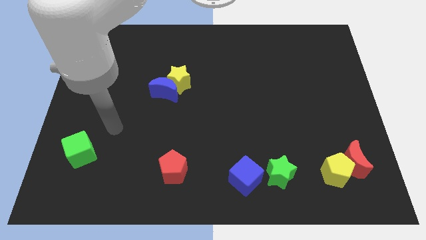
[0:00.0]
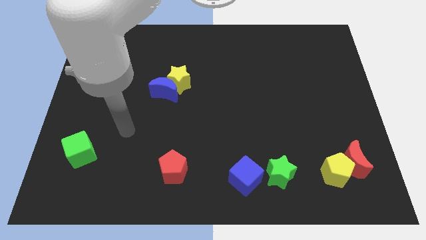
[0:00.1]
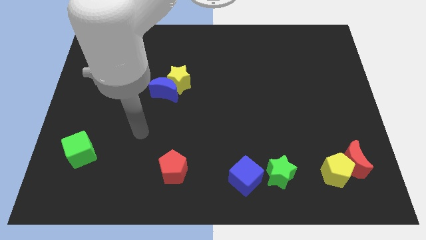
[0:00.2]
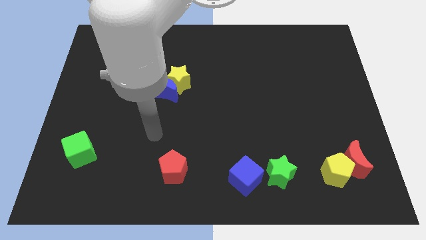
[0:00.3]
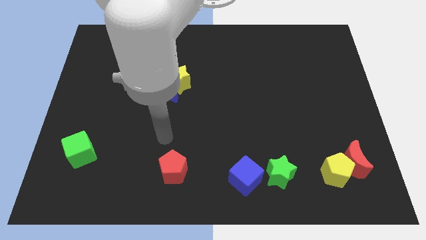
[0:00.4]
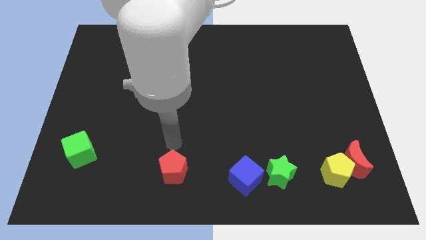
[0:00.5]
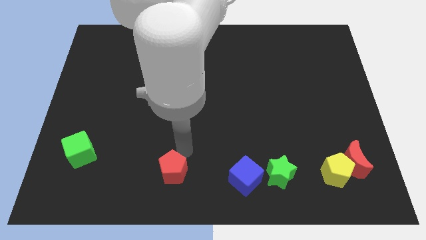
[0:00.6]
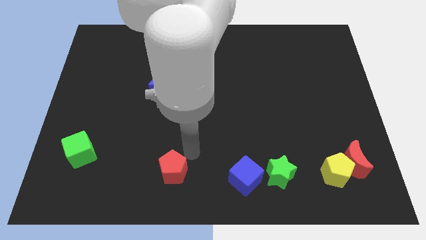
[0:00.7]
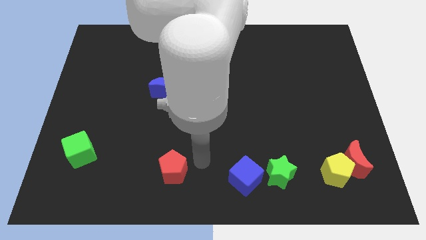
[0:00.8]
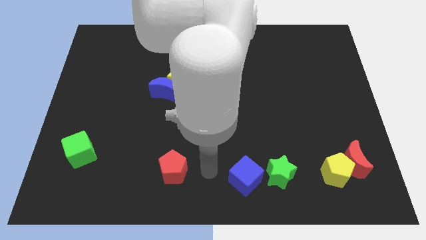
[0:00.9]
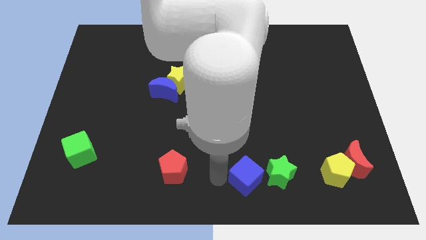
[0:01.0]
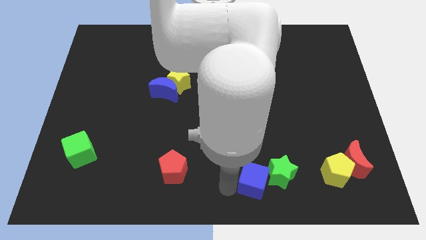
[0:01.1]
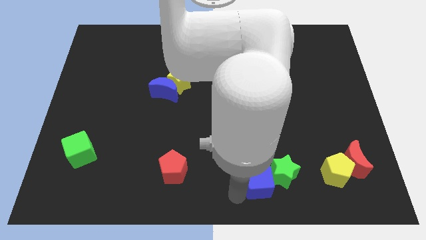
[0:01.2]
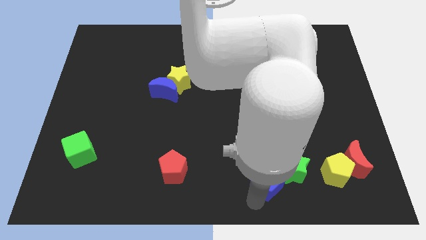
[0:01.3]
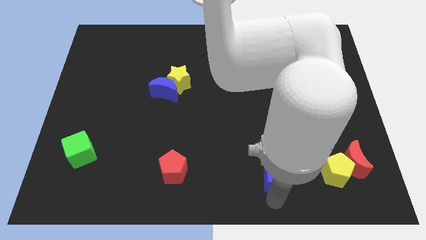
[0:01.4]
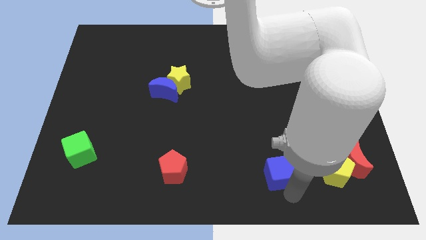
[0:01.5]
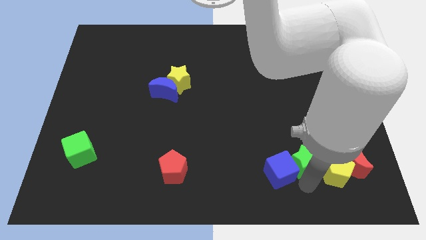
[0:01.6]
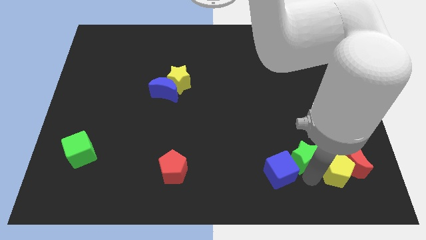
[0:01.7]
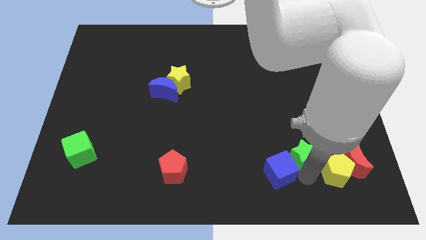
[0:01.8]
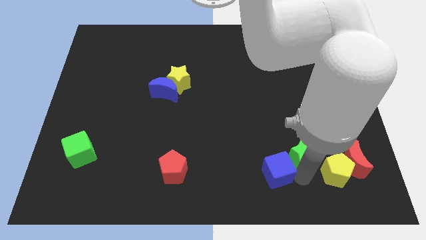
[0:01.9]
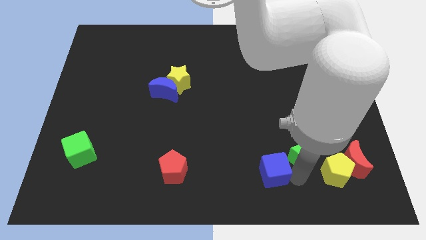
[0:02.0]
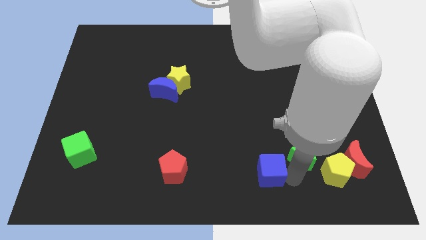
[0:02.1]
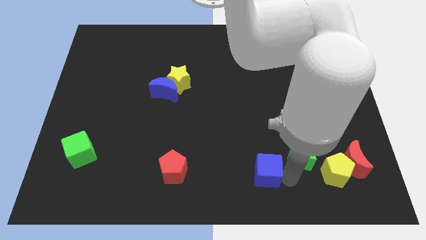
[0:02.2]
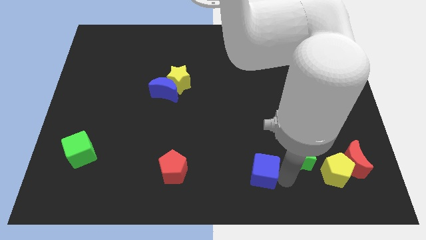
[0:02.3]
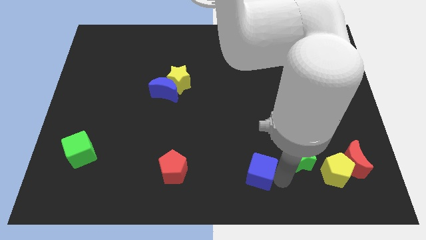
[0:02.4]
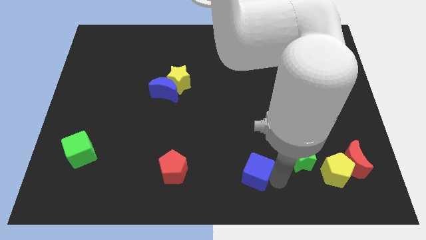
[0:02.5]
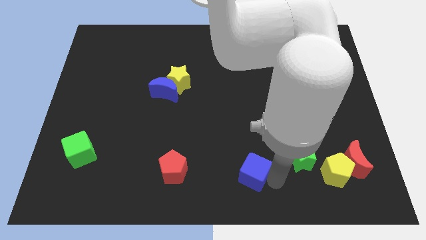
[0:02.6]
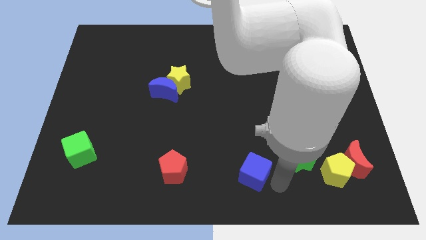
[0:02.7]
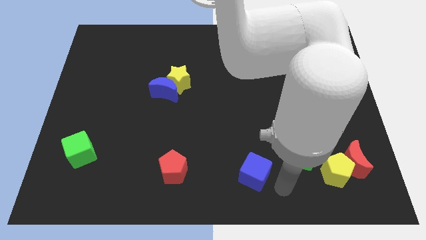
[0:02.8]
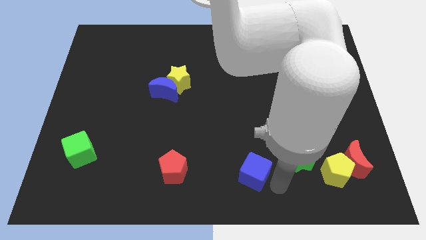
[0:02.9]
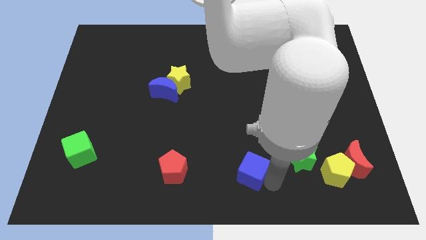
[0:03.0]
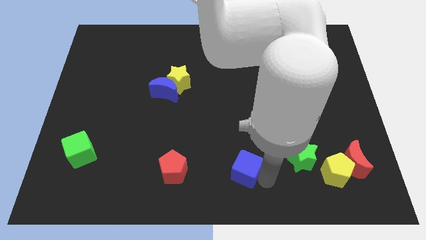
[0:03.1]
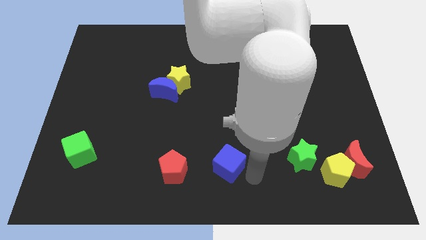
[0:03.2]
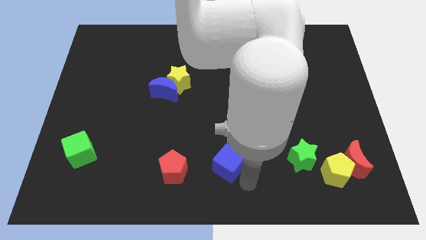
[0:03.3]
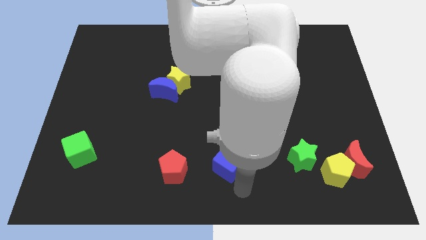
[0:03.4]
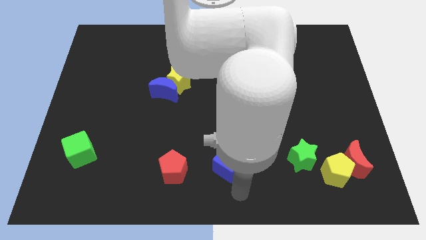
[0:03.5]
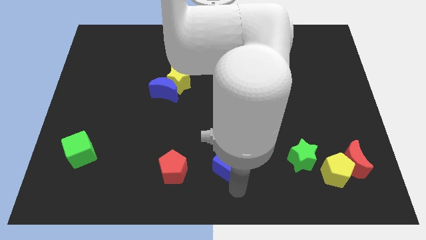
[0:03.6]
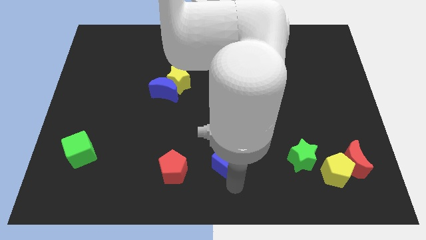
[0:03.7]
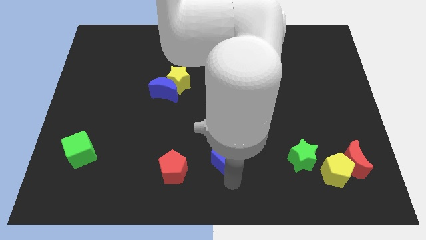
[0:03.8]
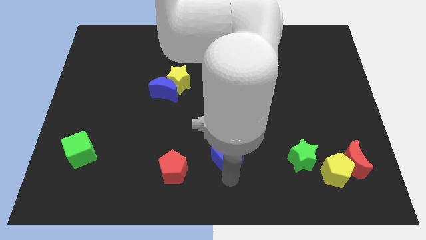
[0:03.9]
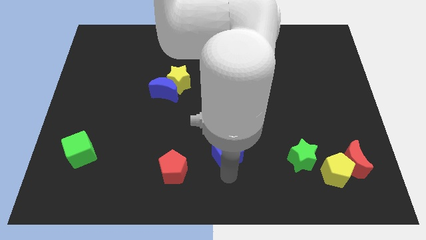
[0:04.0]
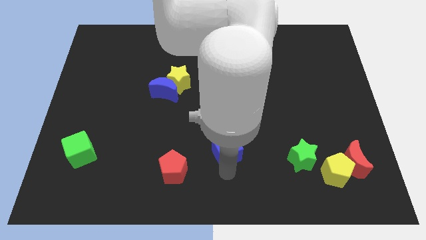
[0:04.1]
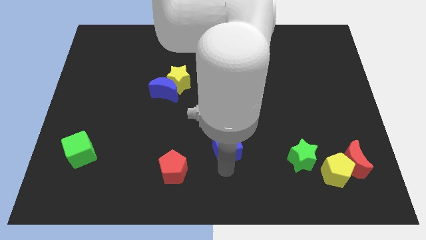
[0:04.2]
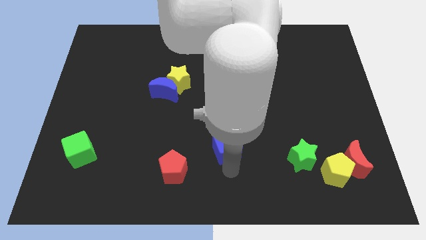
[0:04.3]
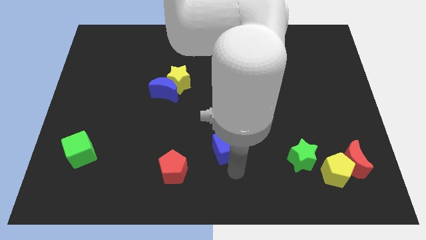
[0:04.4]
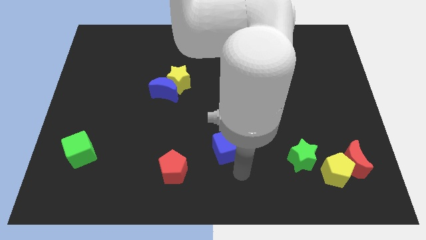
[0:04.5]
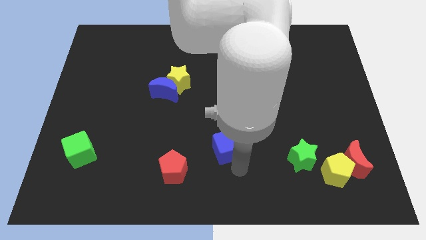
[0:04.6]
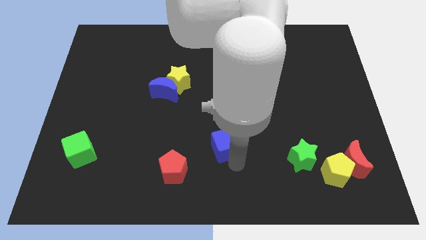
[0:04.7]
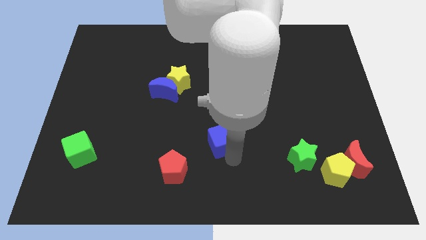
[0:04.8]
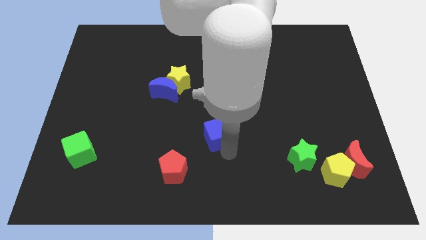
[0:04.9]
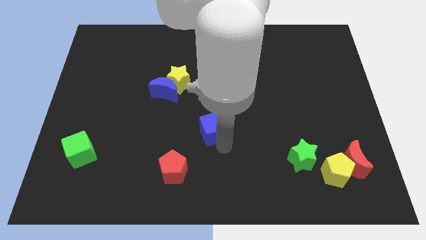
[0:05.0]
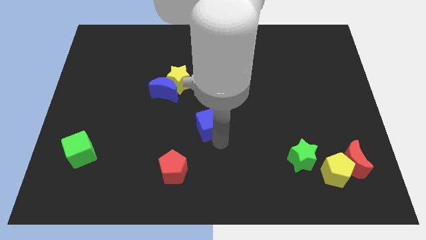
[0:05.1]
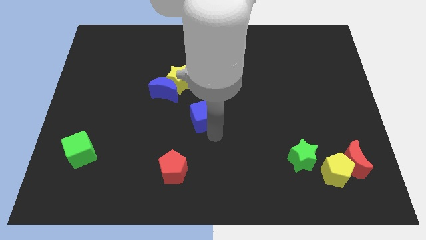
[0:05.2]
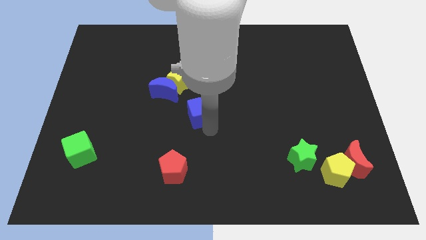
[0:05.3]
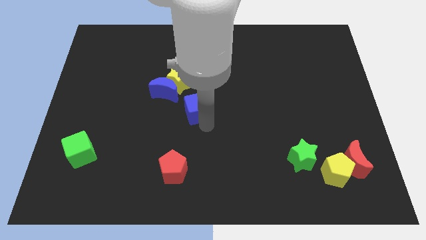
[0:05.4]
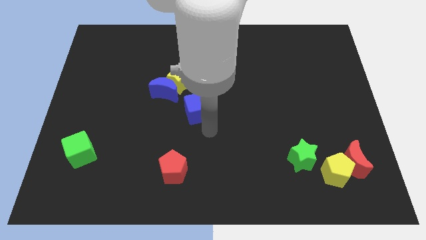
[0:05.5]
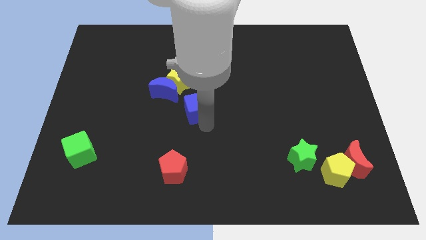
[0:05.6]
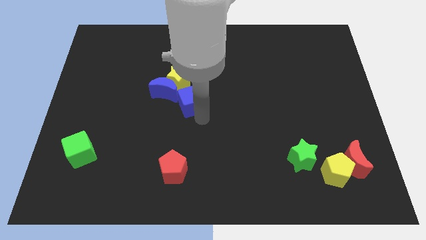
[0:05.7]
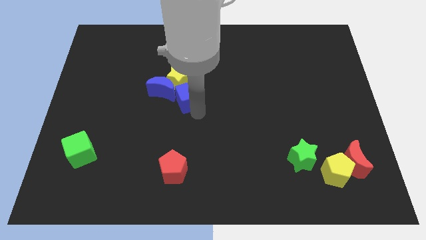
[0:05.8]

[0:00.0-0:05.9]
push the blue cube close to the yellow star

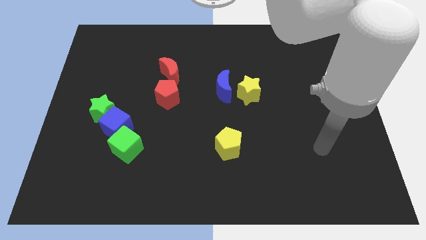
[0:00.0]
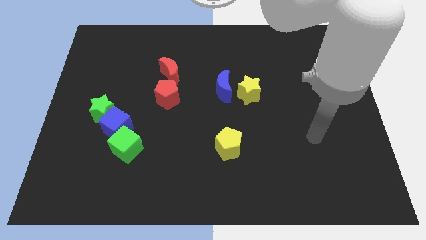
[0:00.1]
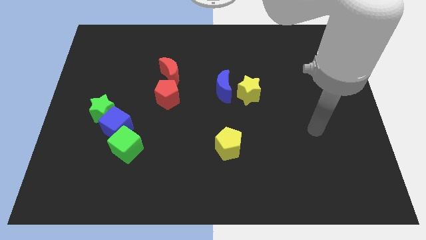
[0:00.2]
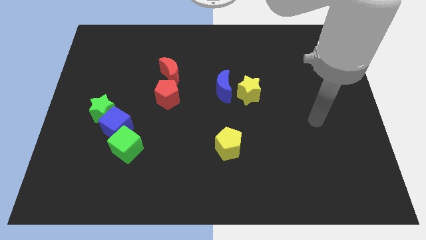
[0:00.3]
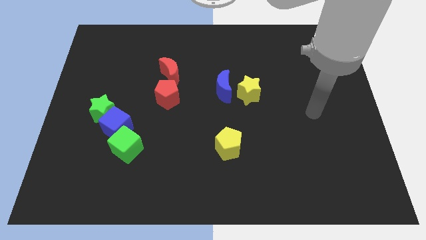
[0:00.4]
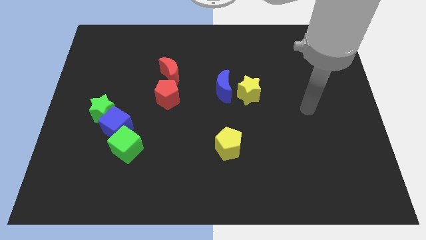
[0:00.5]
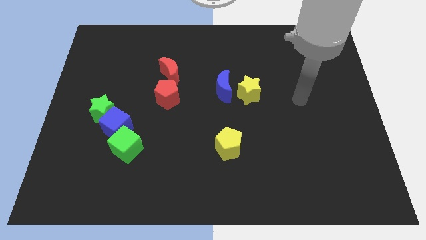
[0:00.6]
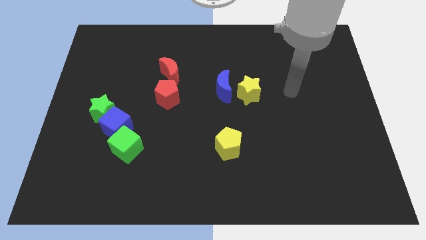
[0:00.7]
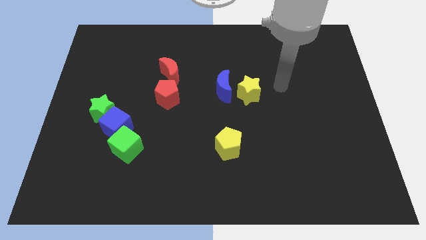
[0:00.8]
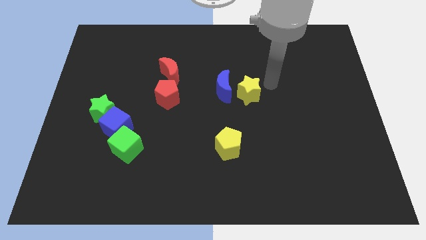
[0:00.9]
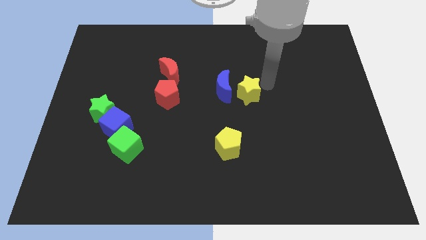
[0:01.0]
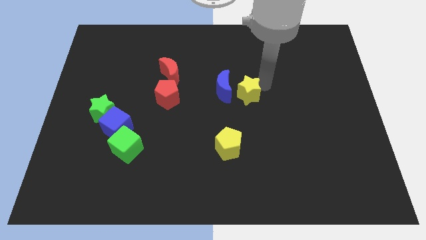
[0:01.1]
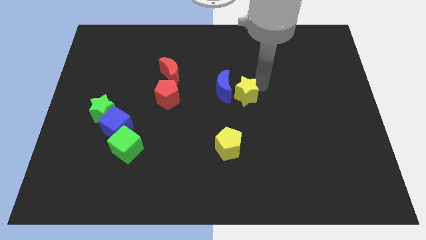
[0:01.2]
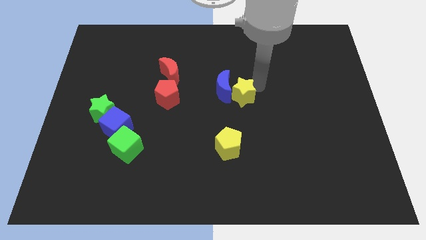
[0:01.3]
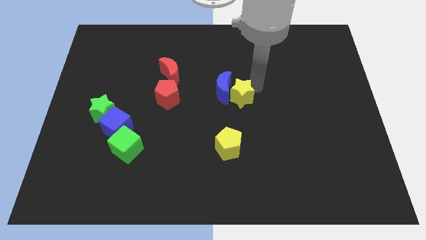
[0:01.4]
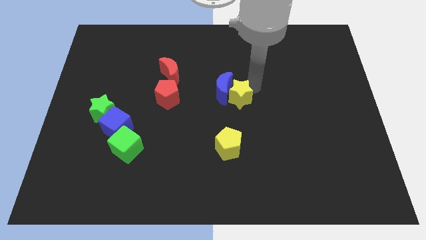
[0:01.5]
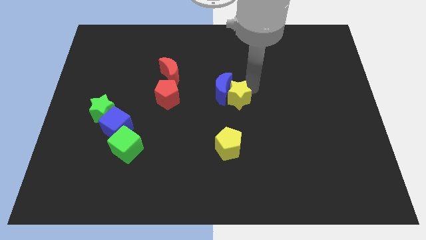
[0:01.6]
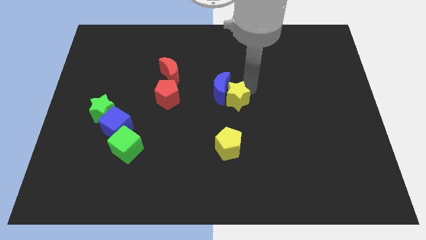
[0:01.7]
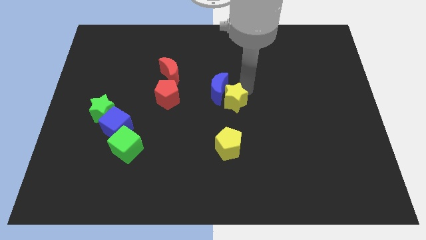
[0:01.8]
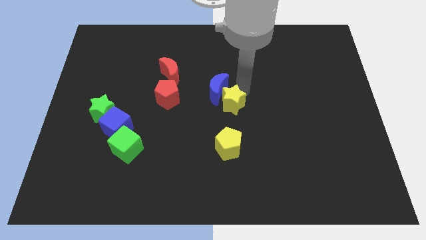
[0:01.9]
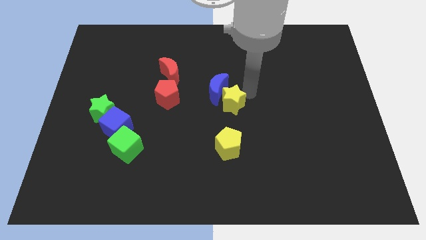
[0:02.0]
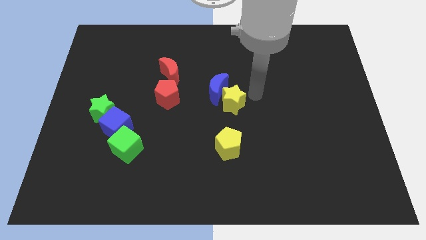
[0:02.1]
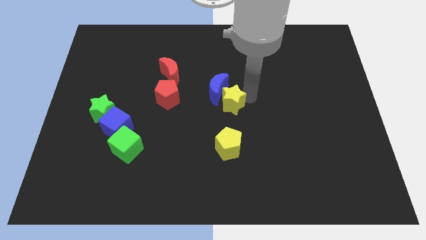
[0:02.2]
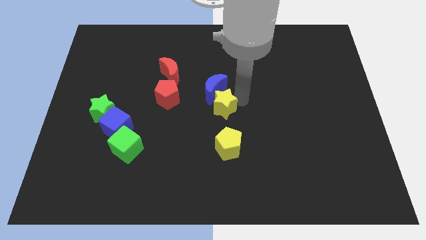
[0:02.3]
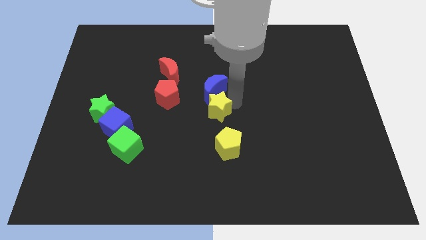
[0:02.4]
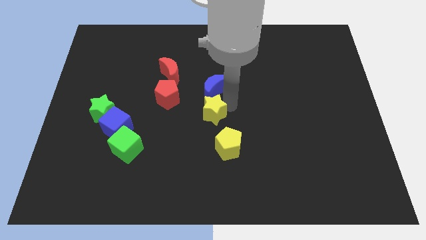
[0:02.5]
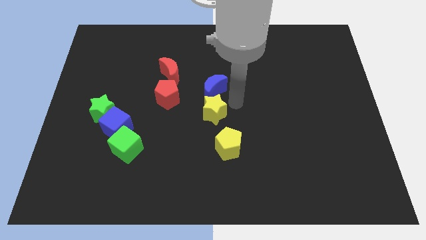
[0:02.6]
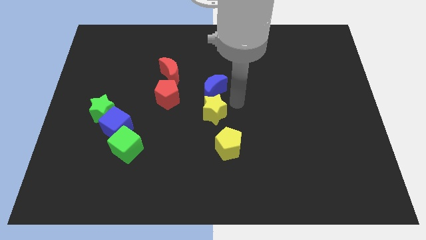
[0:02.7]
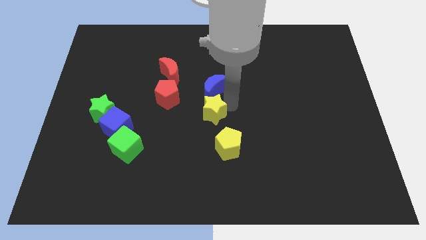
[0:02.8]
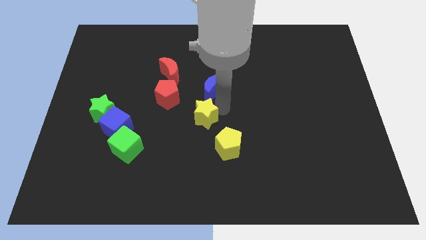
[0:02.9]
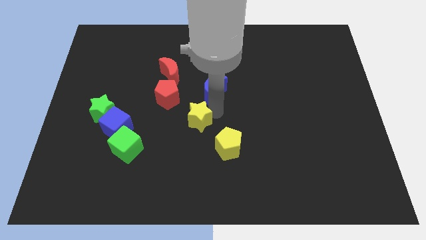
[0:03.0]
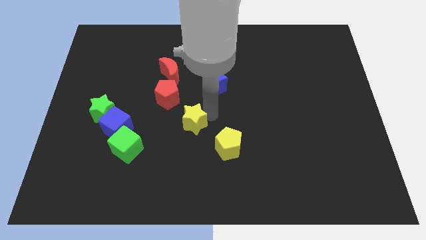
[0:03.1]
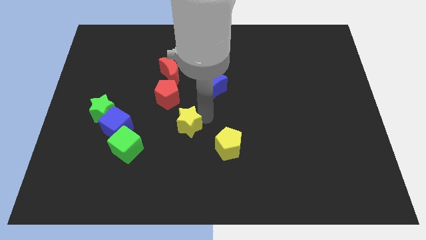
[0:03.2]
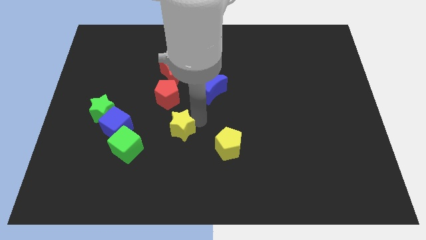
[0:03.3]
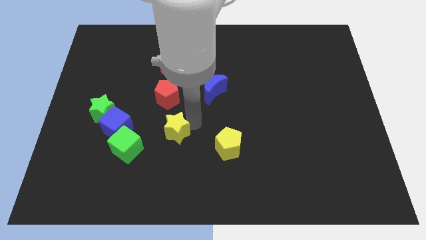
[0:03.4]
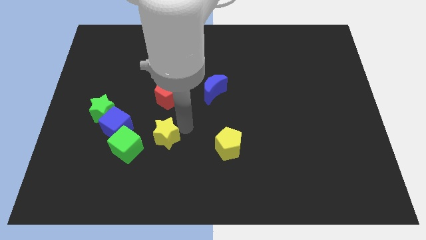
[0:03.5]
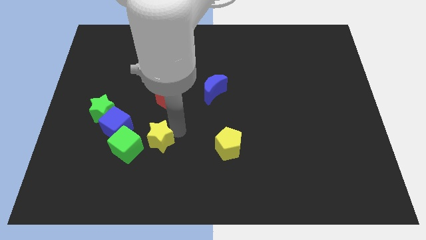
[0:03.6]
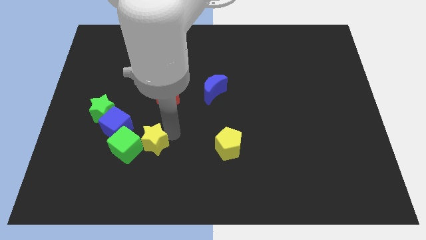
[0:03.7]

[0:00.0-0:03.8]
slide the yellow star towards the green cube
